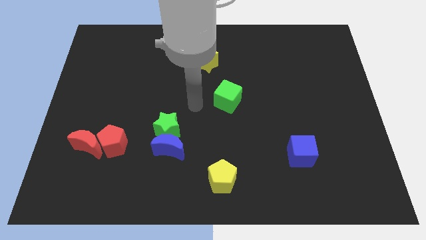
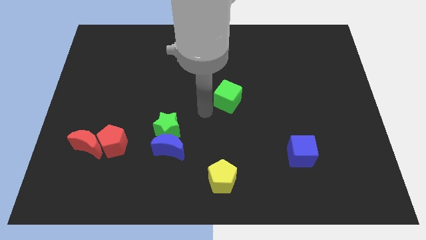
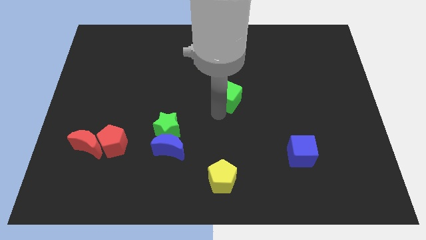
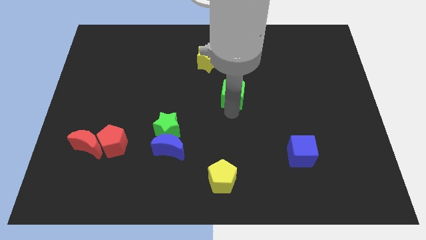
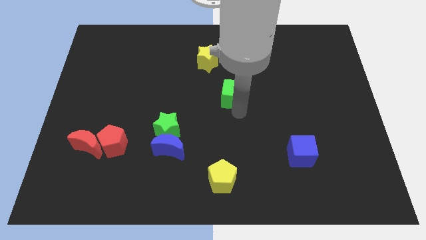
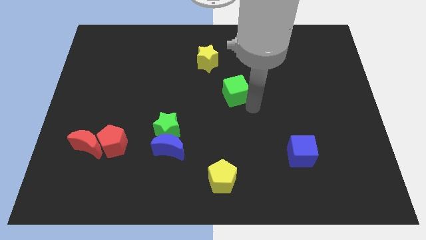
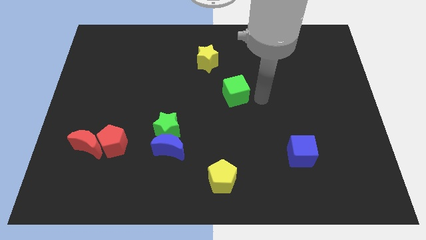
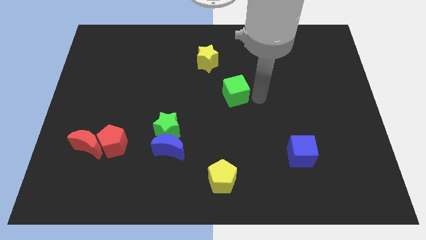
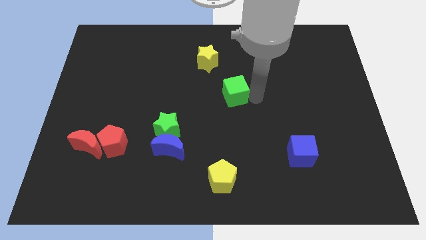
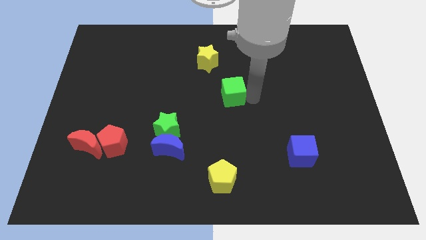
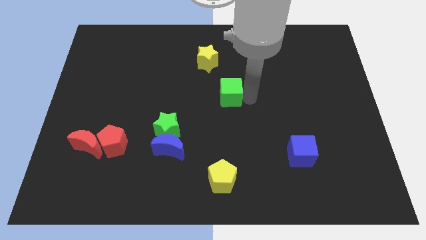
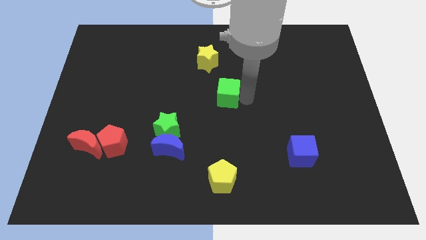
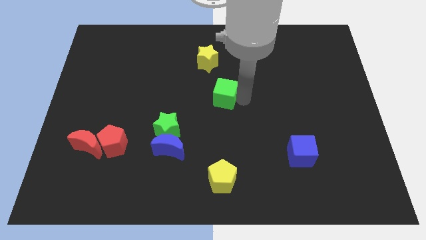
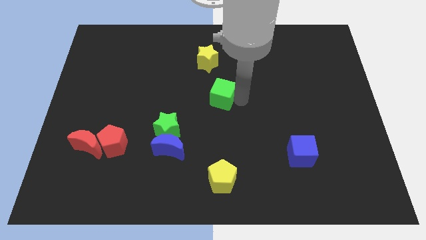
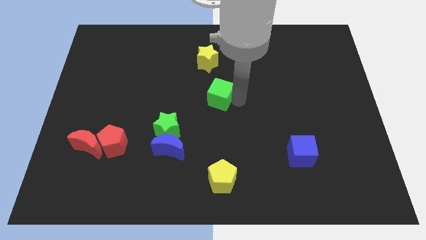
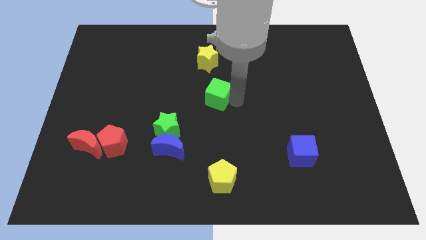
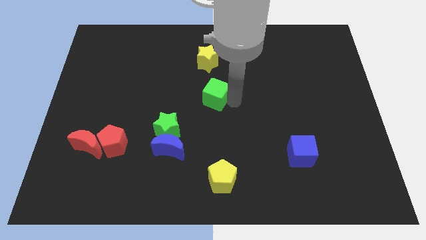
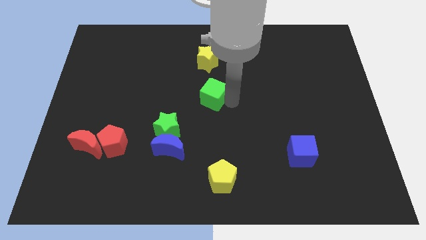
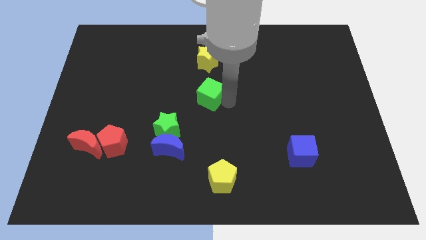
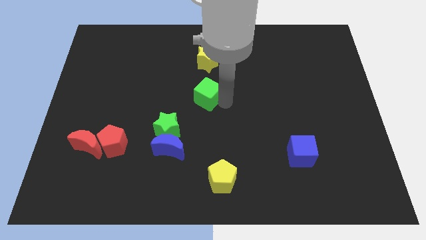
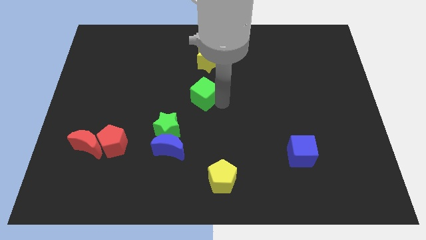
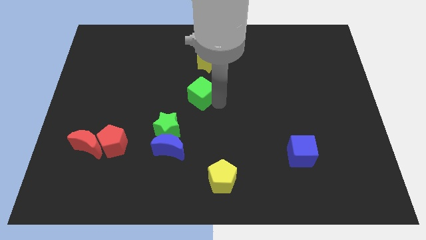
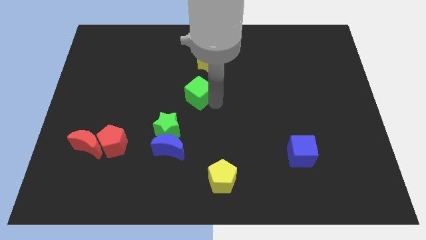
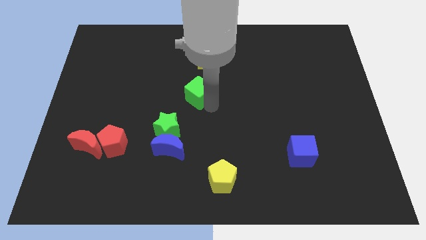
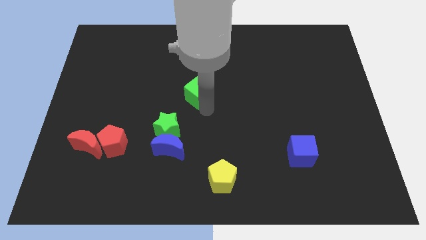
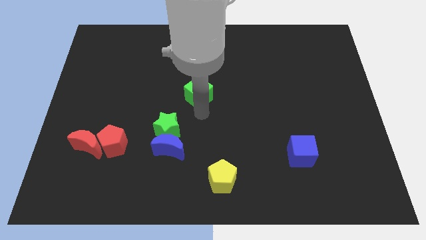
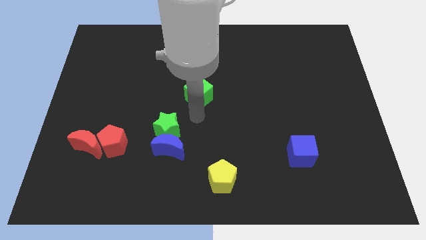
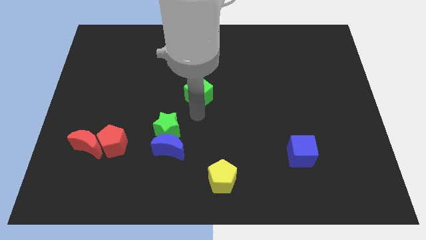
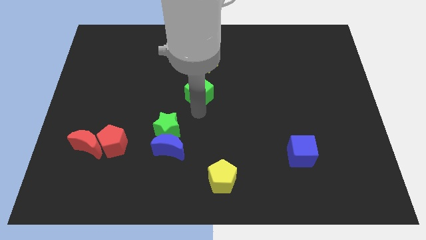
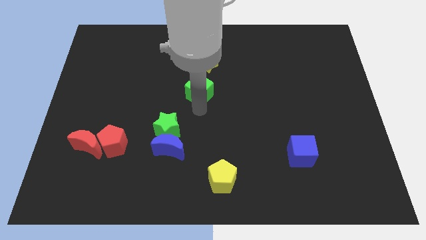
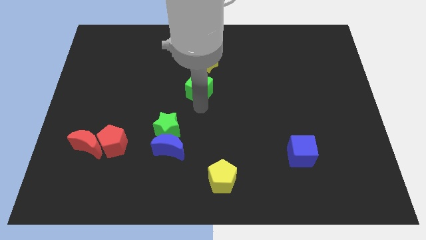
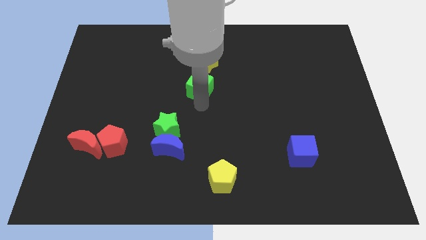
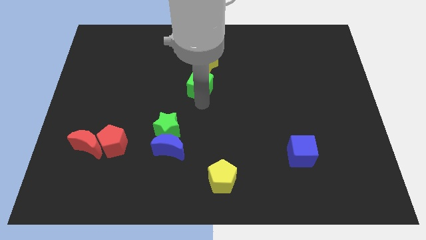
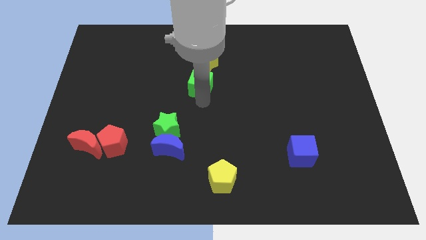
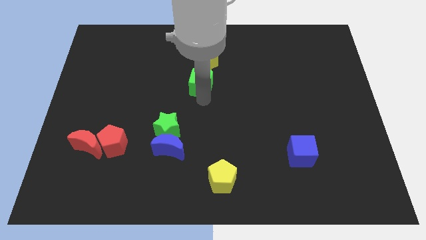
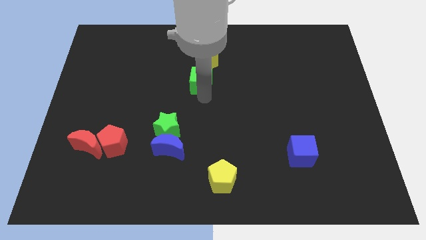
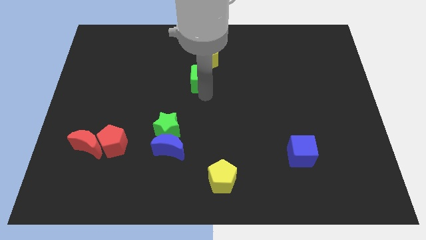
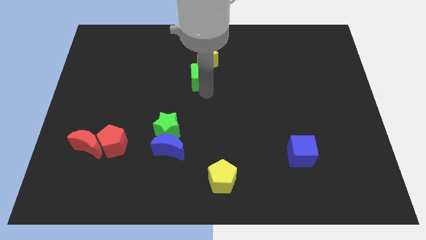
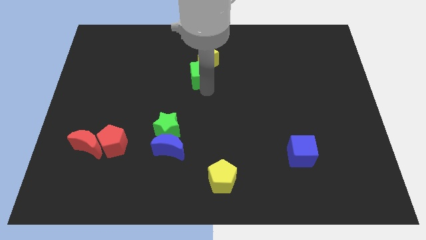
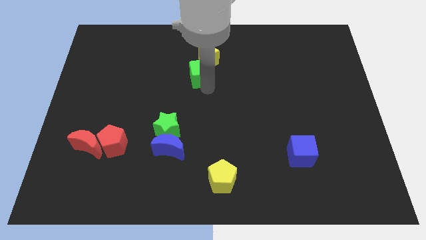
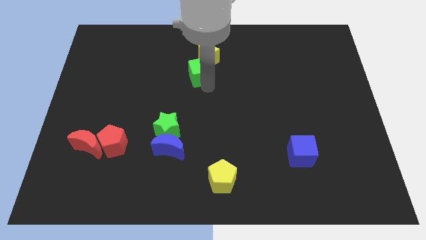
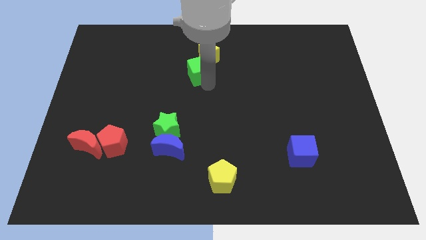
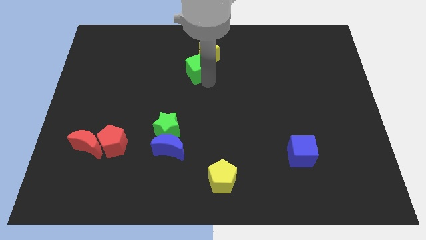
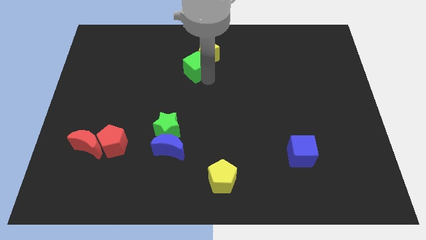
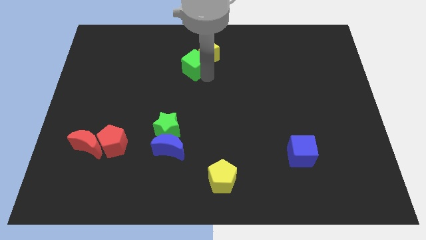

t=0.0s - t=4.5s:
slide the green cube left of the yellow star

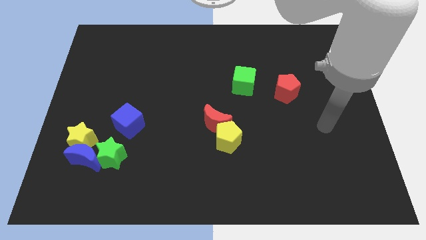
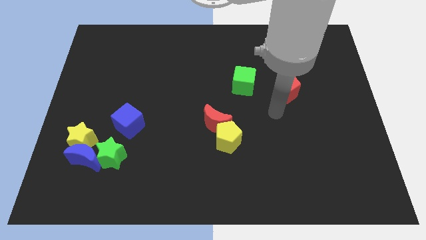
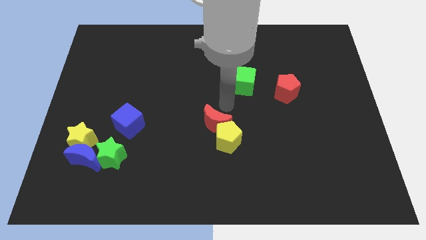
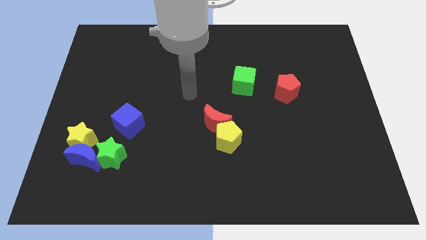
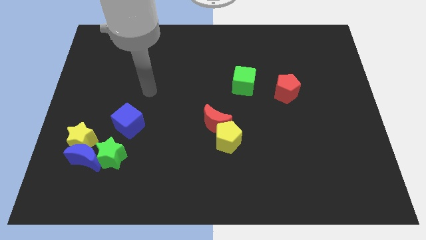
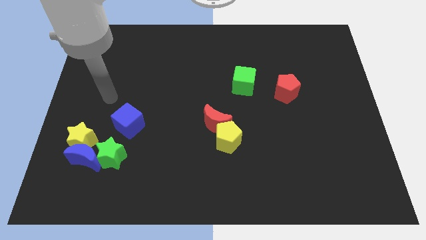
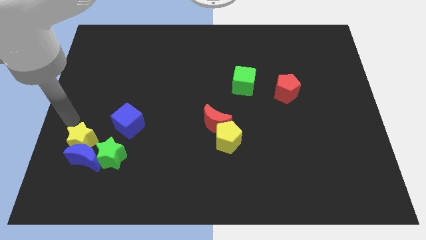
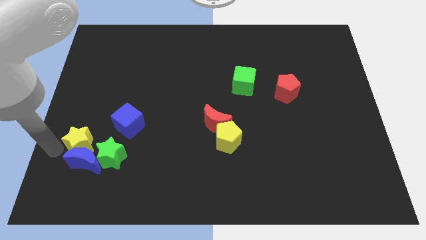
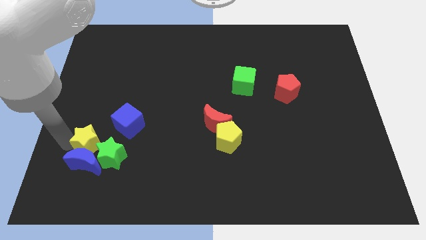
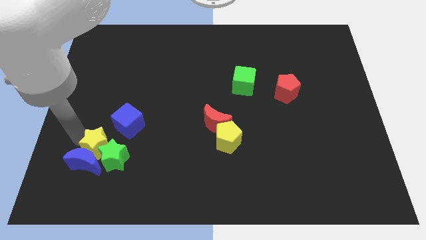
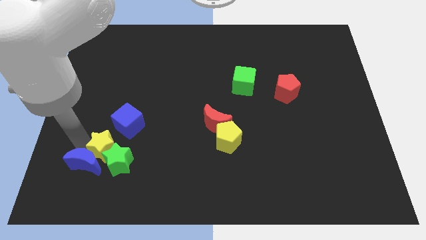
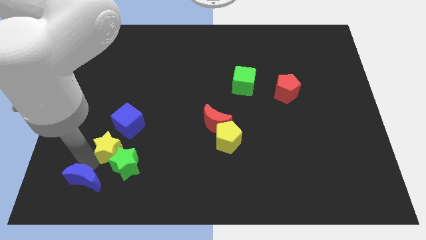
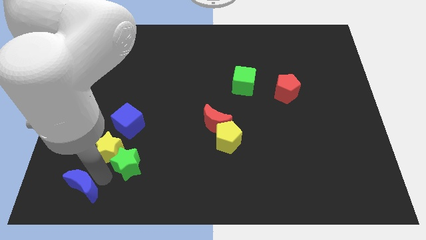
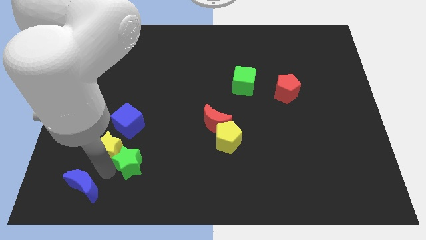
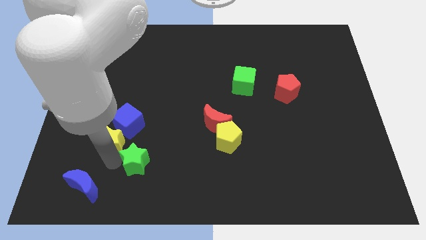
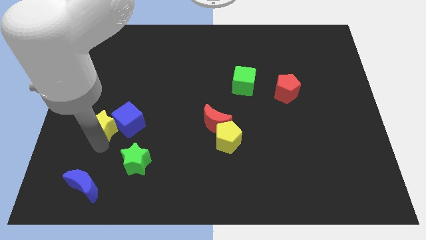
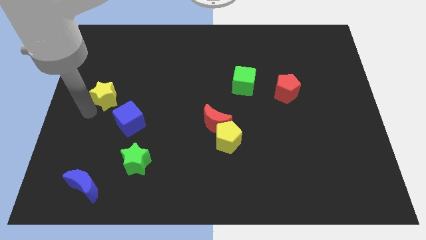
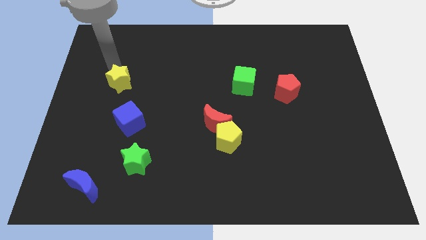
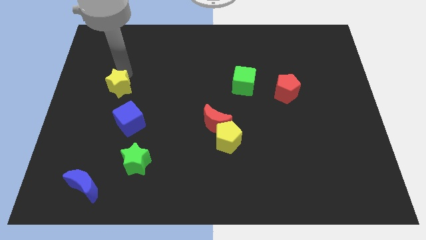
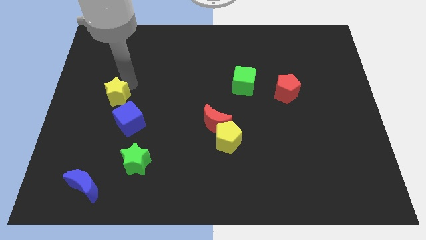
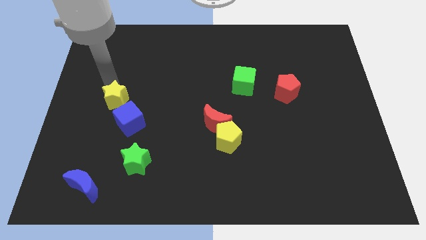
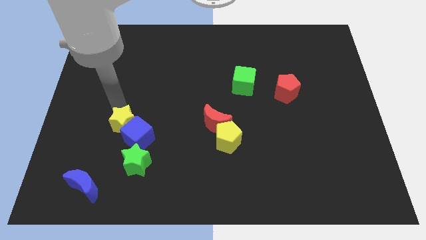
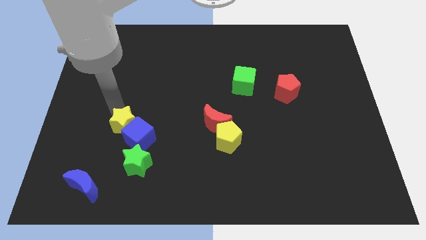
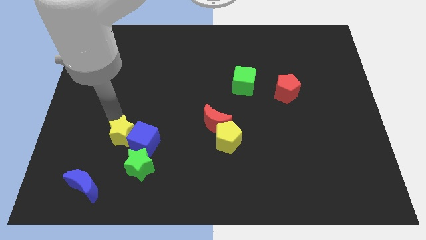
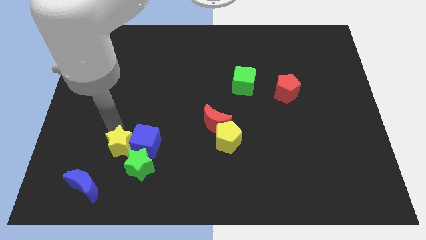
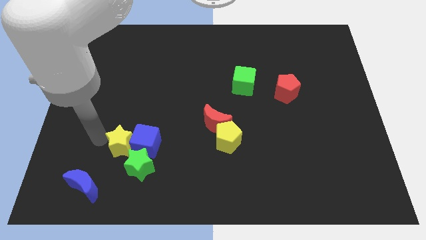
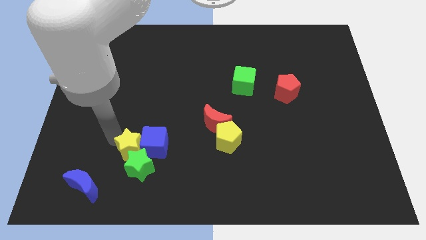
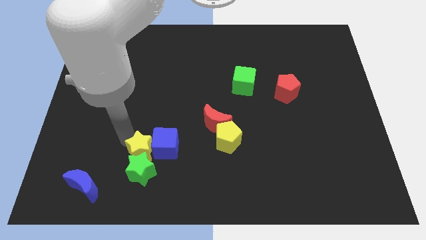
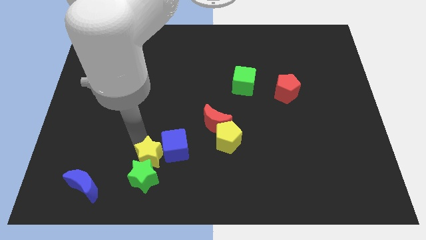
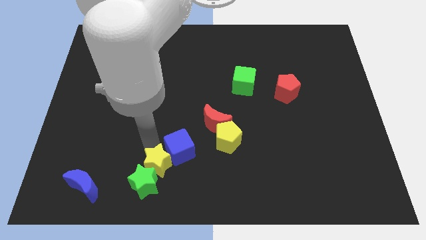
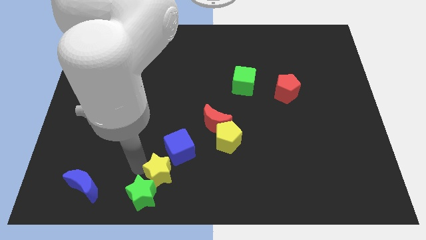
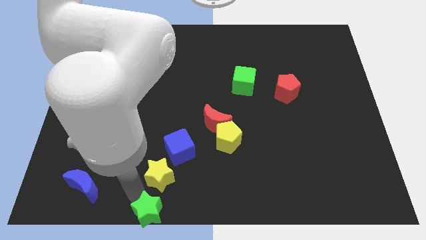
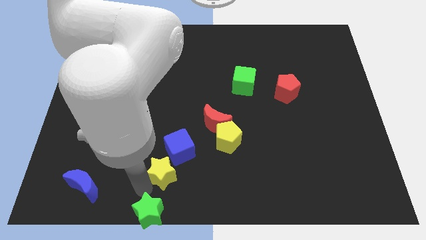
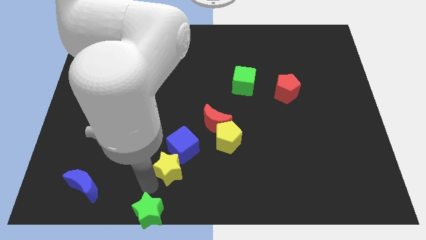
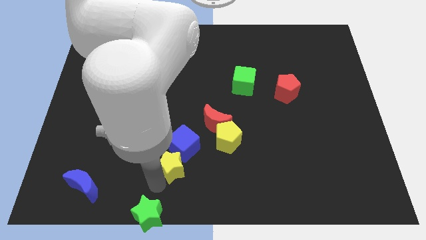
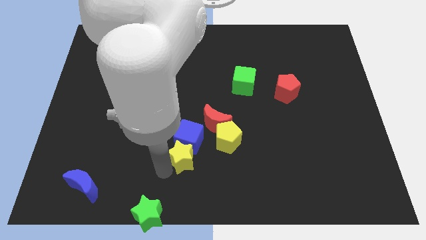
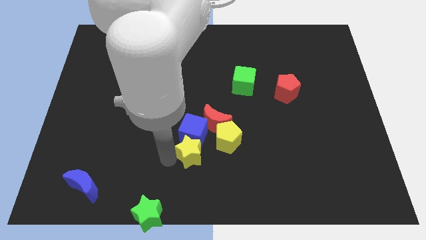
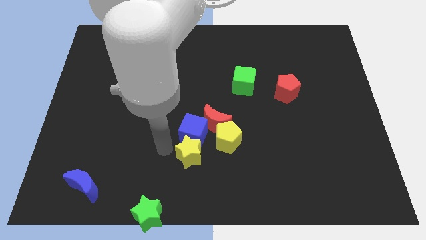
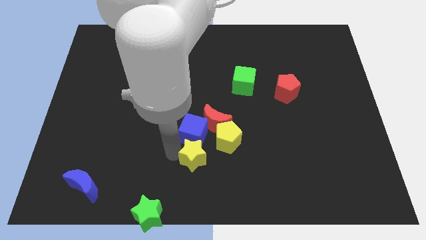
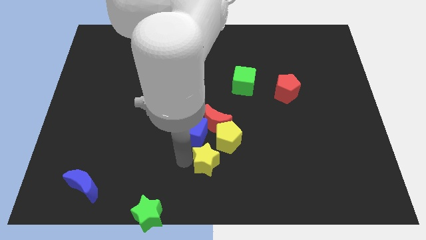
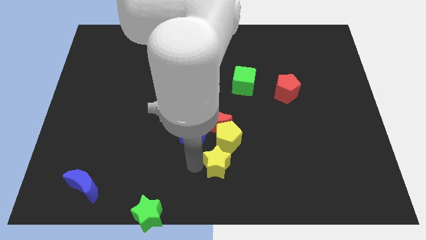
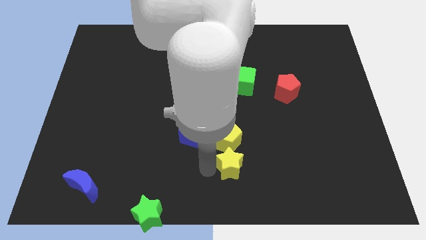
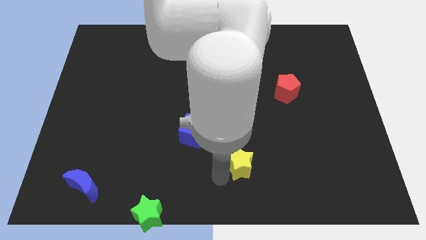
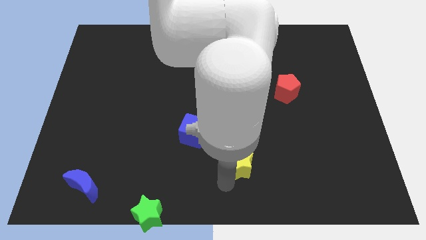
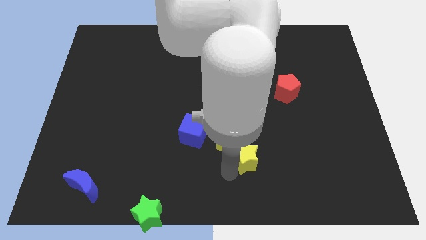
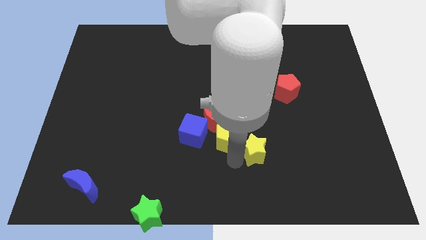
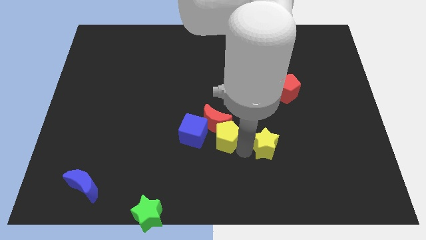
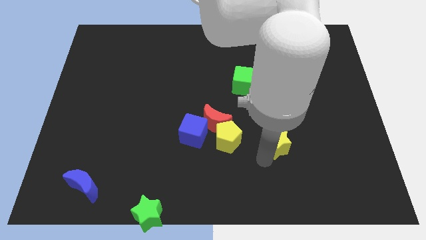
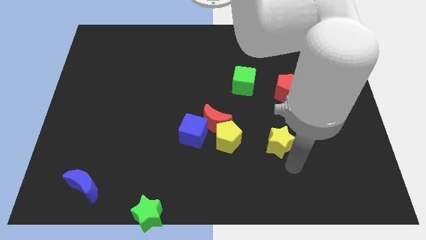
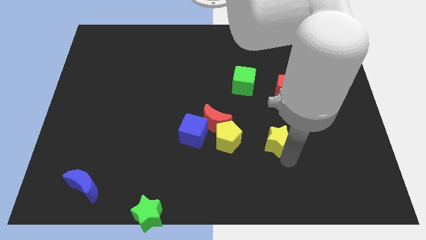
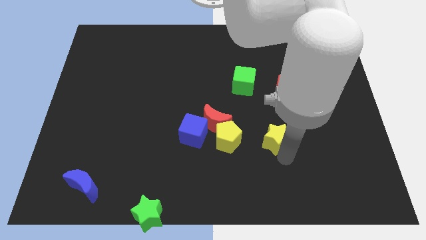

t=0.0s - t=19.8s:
put the yellow star to the right side of the red moon
